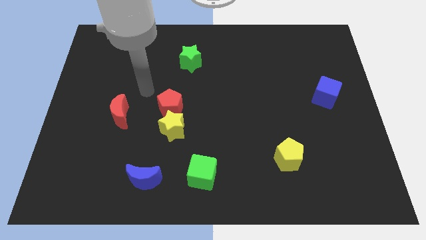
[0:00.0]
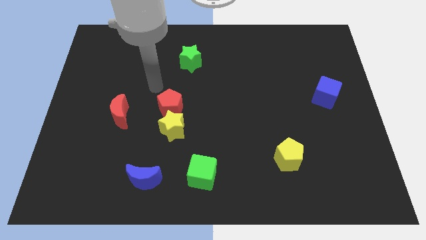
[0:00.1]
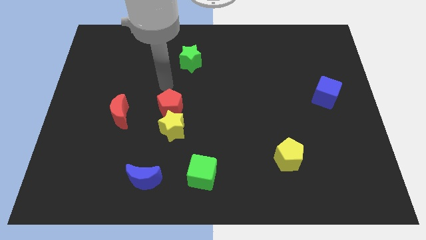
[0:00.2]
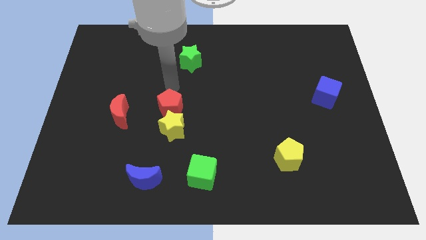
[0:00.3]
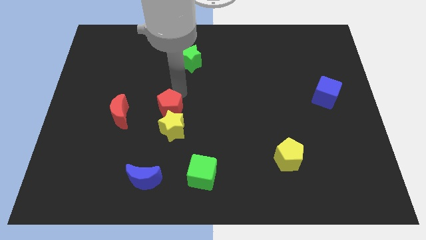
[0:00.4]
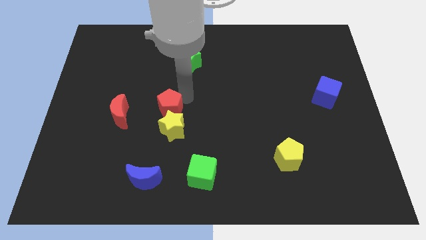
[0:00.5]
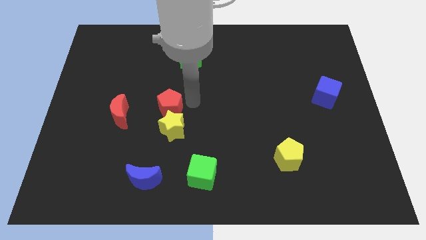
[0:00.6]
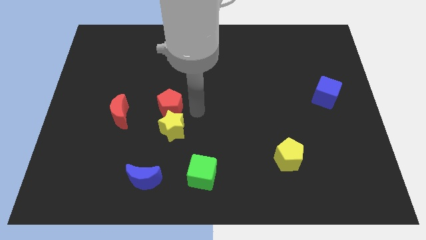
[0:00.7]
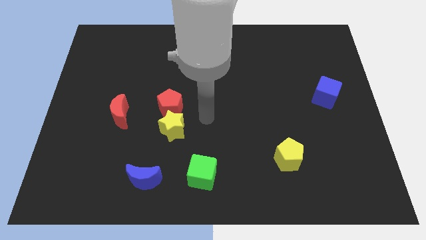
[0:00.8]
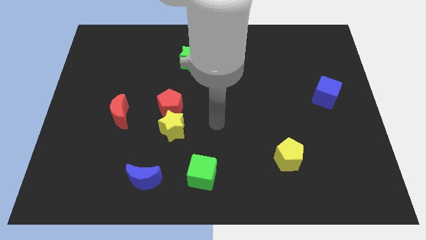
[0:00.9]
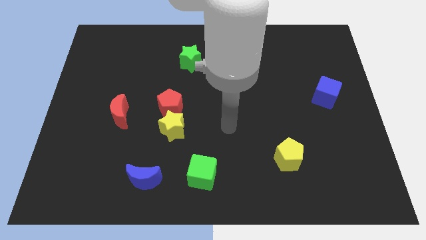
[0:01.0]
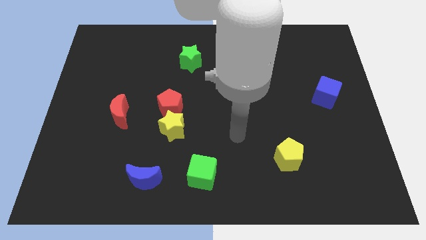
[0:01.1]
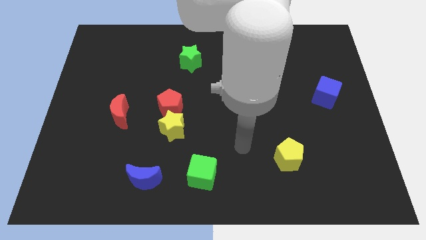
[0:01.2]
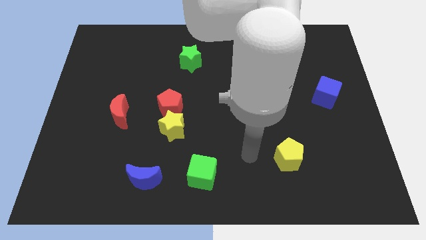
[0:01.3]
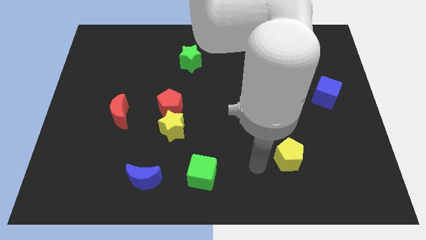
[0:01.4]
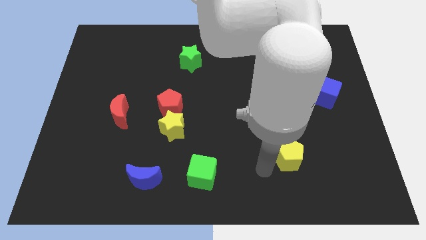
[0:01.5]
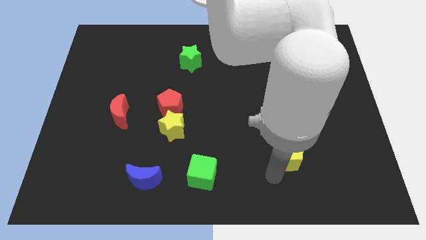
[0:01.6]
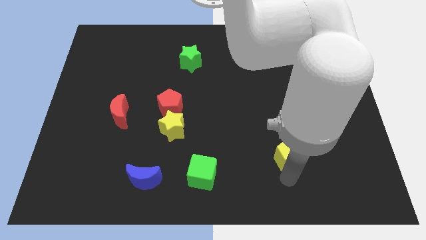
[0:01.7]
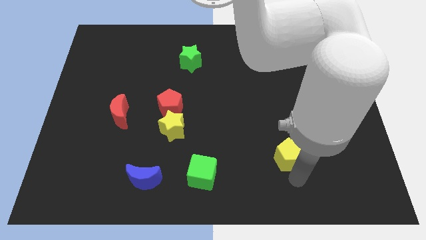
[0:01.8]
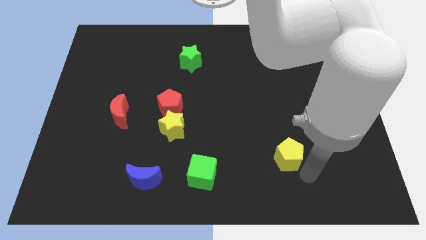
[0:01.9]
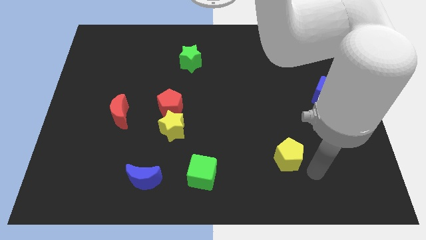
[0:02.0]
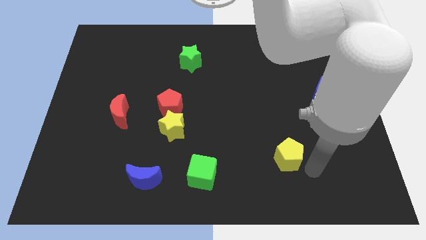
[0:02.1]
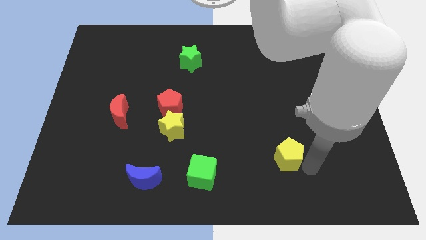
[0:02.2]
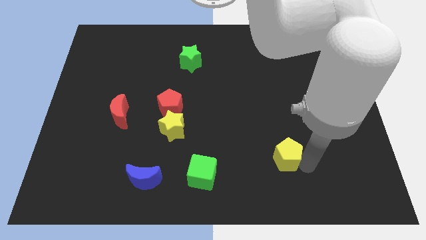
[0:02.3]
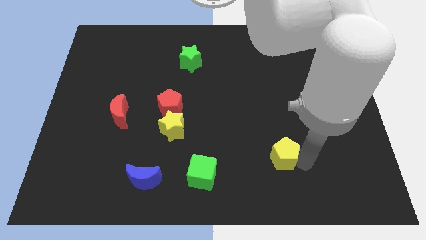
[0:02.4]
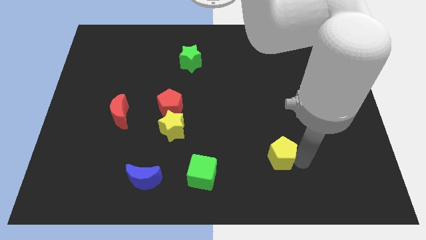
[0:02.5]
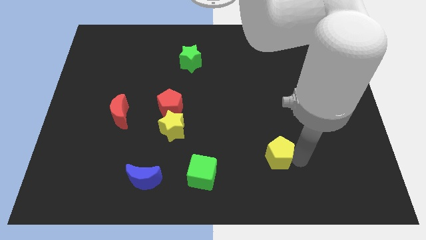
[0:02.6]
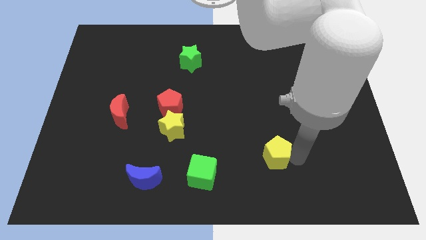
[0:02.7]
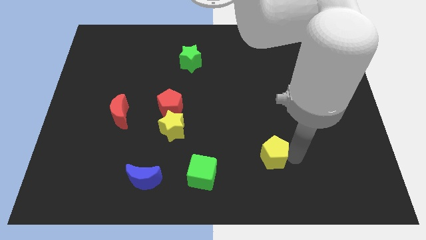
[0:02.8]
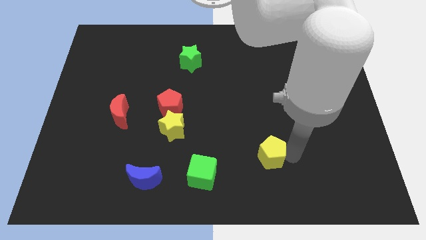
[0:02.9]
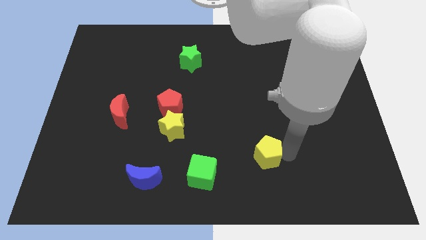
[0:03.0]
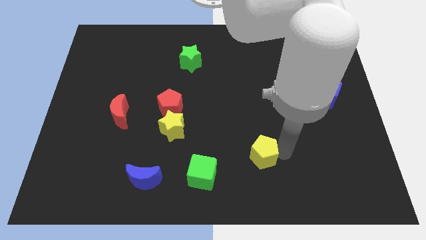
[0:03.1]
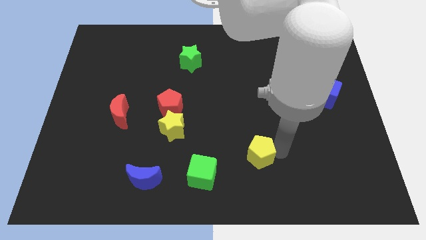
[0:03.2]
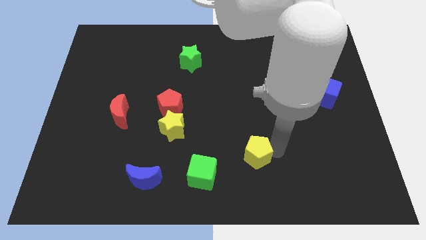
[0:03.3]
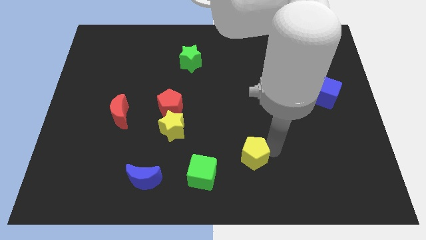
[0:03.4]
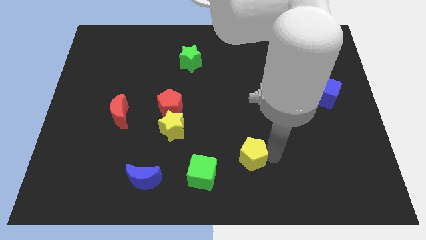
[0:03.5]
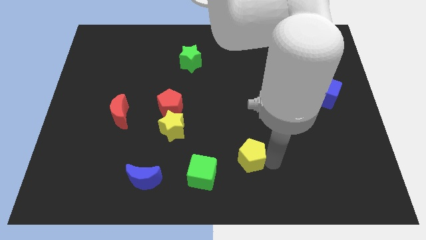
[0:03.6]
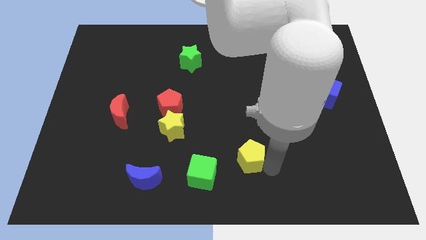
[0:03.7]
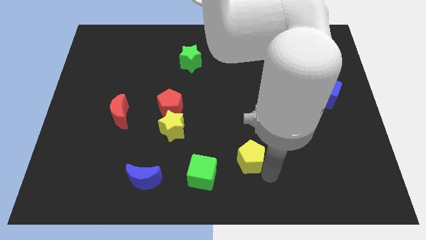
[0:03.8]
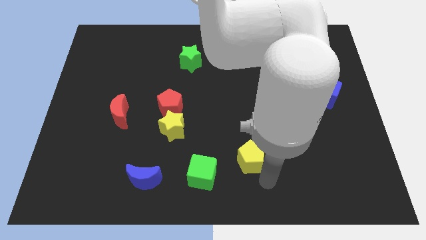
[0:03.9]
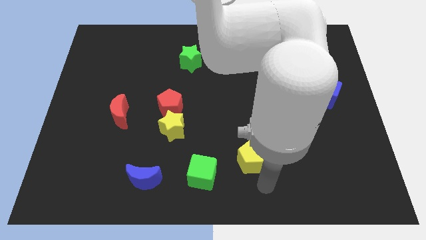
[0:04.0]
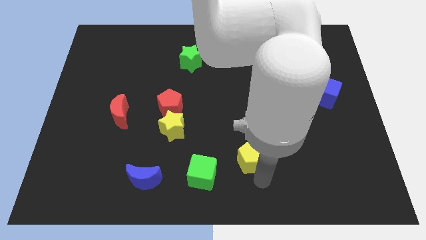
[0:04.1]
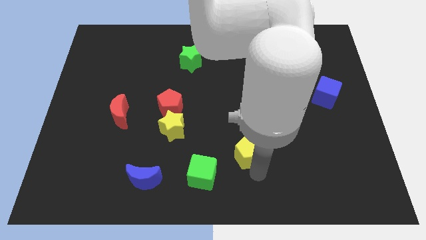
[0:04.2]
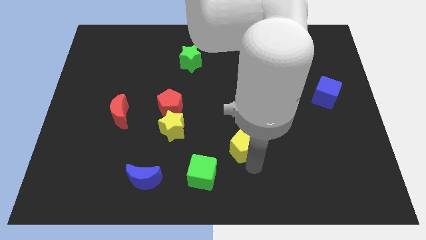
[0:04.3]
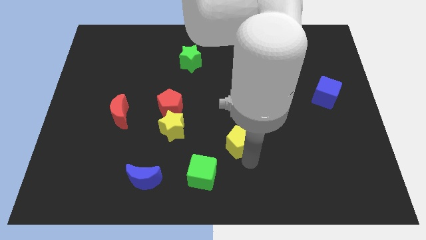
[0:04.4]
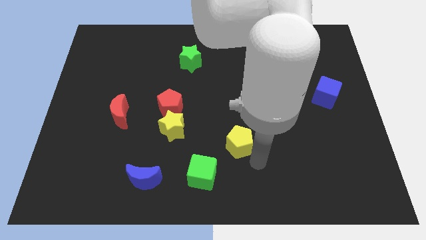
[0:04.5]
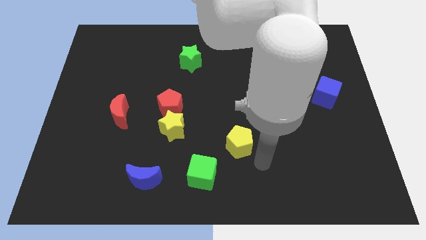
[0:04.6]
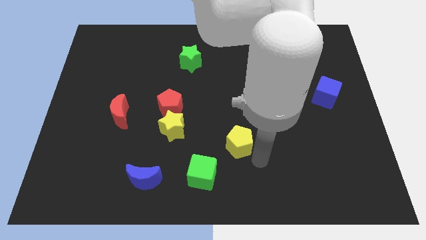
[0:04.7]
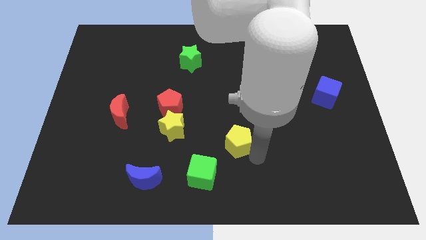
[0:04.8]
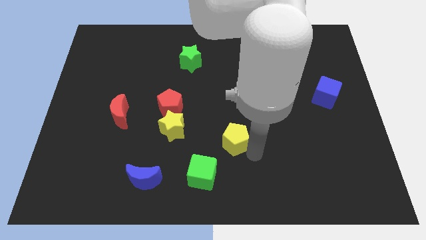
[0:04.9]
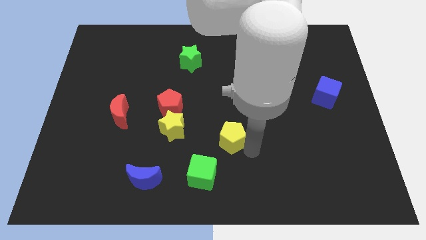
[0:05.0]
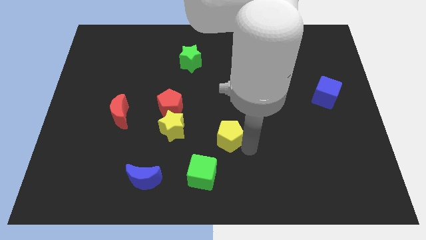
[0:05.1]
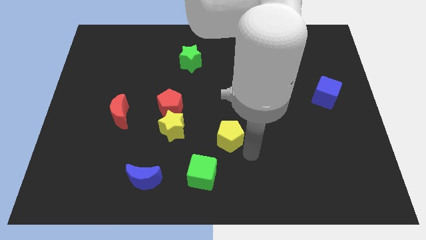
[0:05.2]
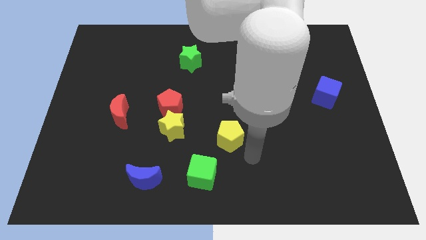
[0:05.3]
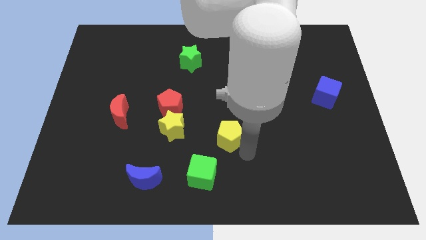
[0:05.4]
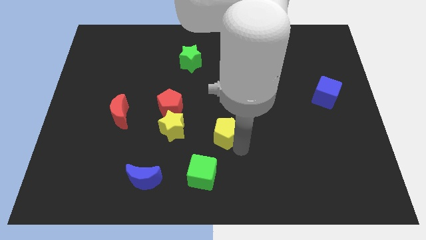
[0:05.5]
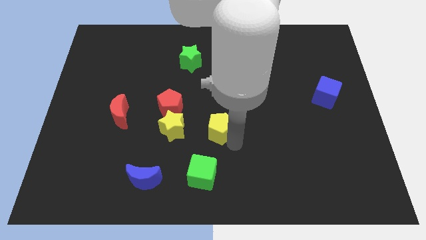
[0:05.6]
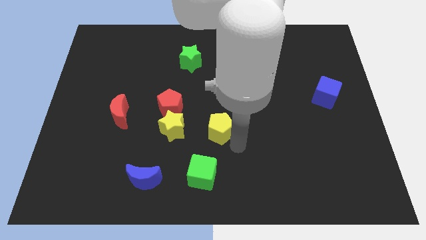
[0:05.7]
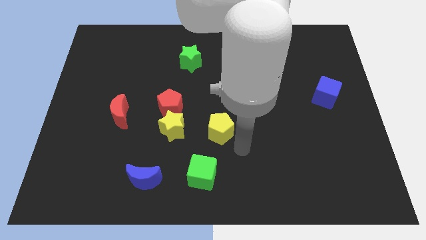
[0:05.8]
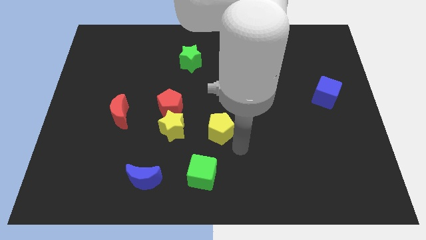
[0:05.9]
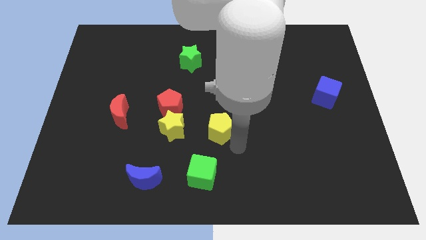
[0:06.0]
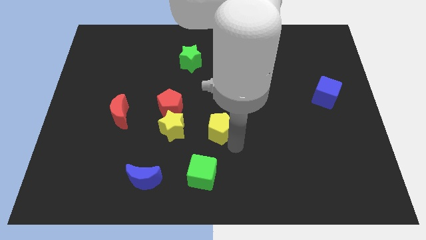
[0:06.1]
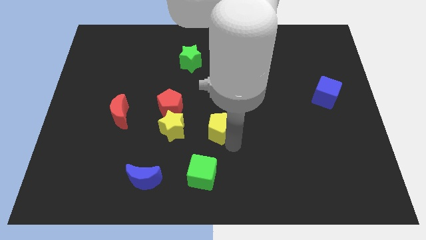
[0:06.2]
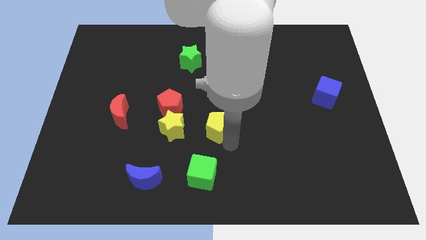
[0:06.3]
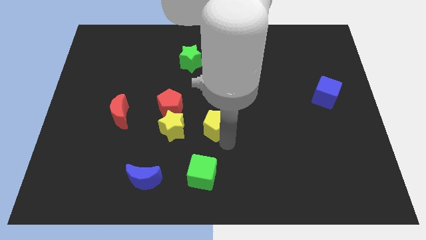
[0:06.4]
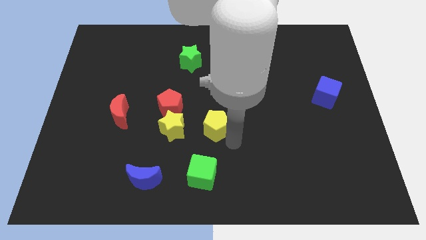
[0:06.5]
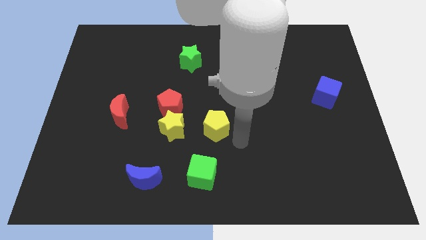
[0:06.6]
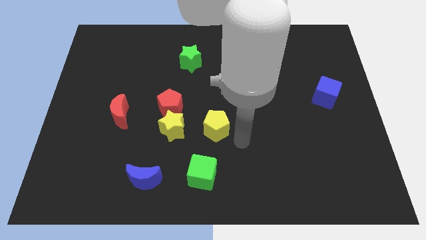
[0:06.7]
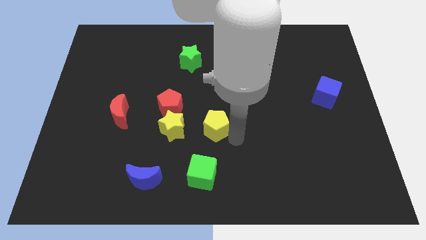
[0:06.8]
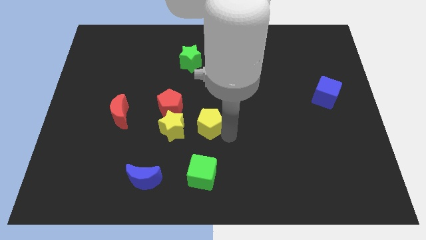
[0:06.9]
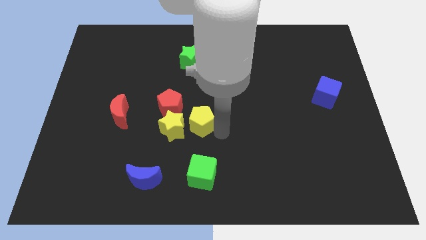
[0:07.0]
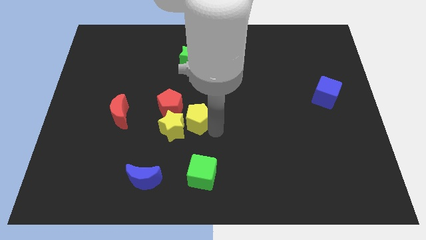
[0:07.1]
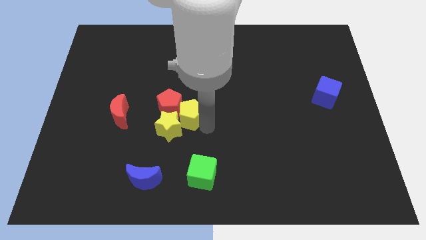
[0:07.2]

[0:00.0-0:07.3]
push the yellow pentagon close to the red pentagon

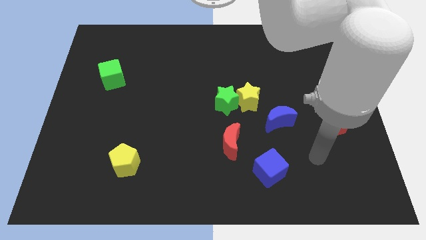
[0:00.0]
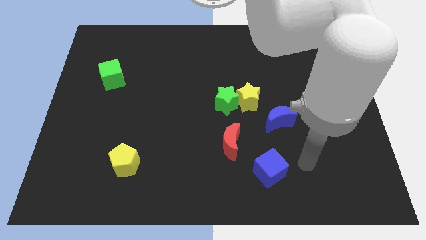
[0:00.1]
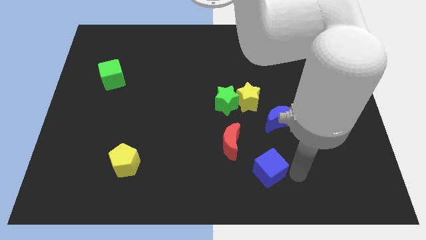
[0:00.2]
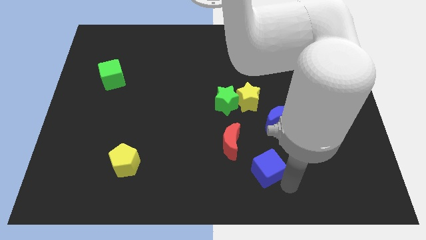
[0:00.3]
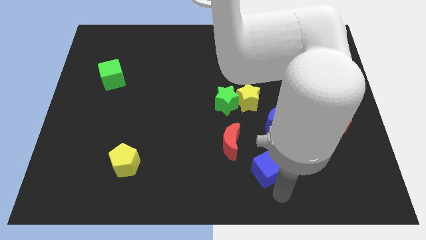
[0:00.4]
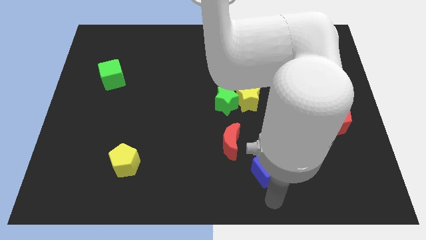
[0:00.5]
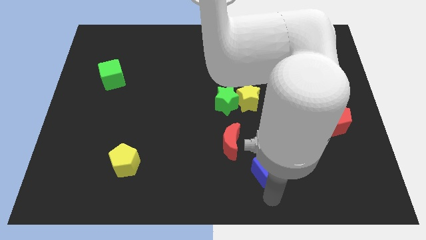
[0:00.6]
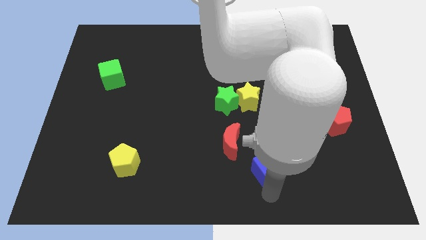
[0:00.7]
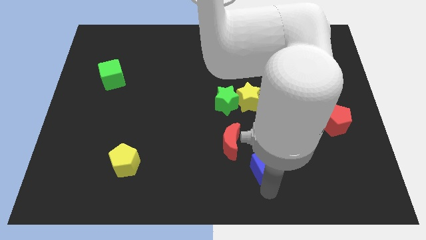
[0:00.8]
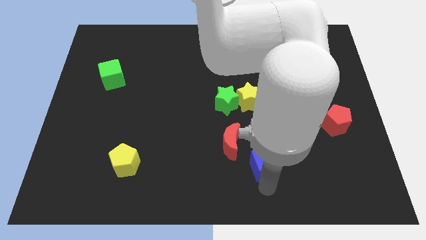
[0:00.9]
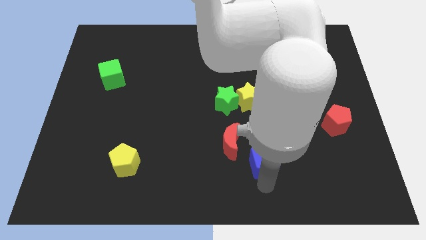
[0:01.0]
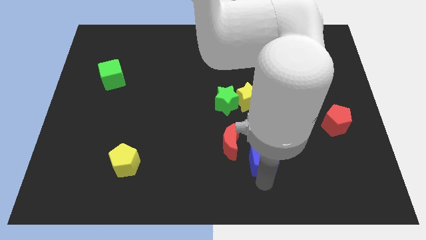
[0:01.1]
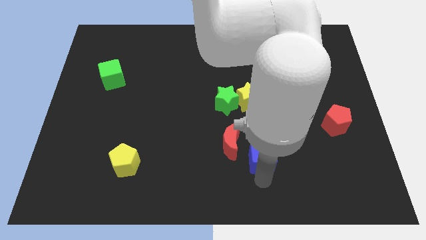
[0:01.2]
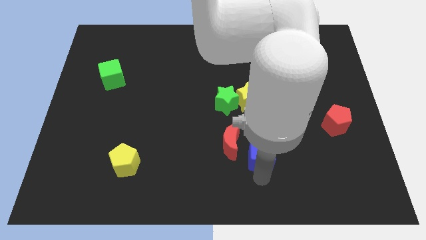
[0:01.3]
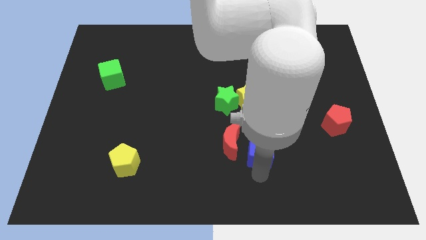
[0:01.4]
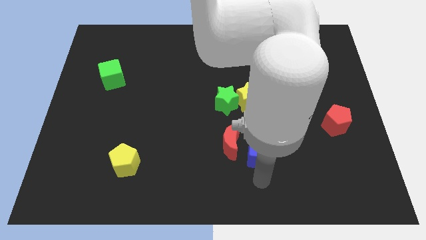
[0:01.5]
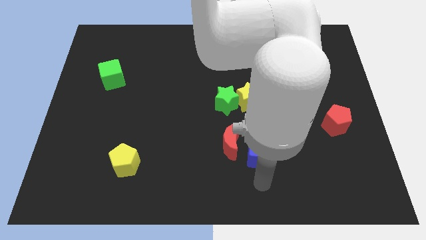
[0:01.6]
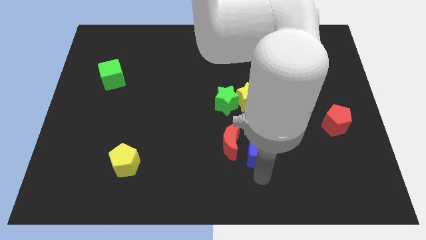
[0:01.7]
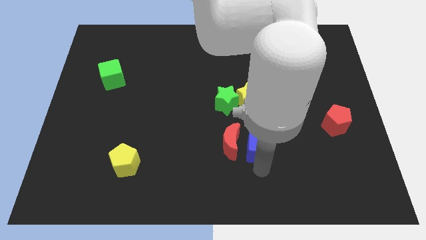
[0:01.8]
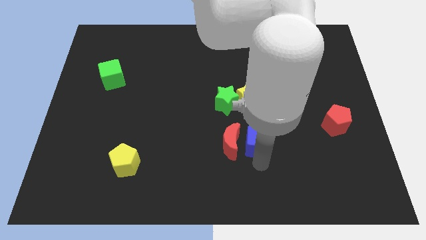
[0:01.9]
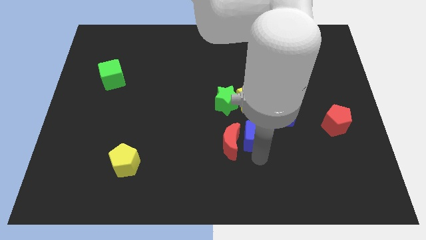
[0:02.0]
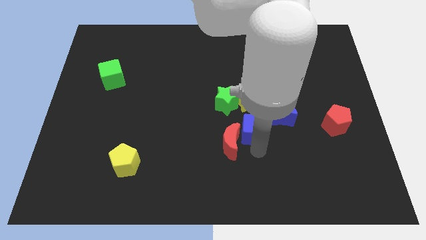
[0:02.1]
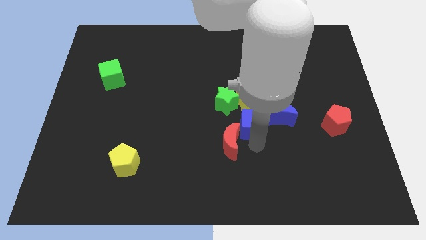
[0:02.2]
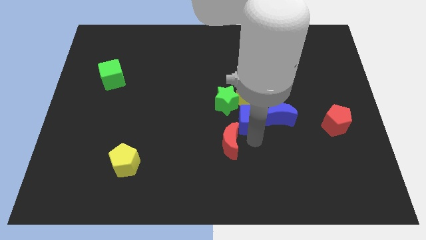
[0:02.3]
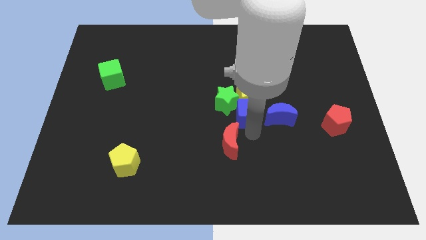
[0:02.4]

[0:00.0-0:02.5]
put the blue cube to the yellow star
